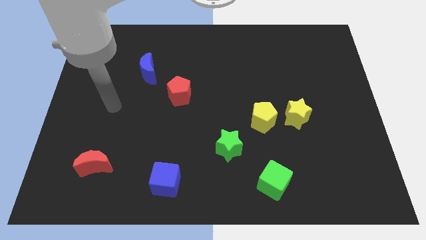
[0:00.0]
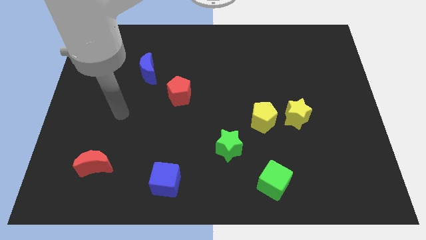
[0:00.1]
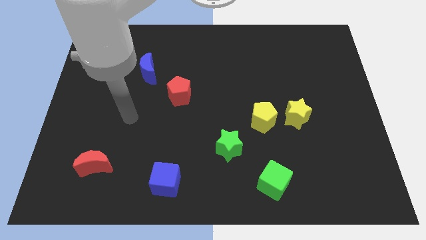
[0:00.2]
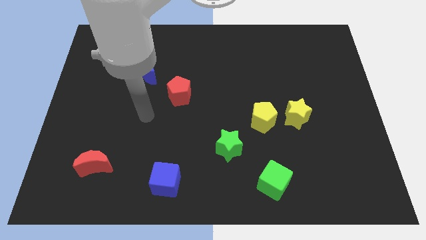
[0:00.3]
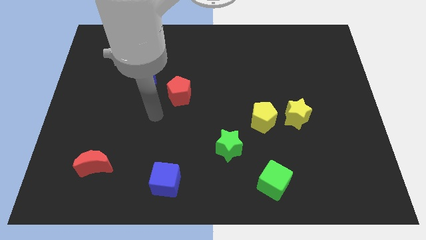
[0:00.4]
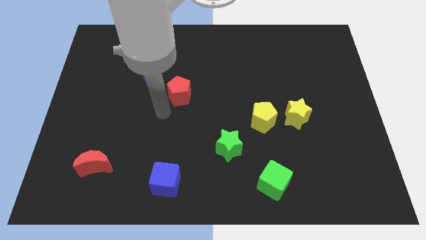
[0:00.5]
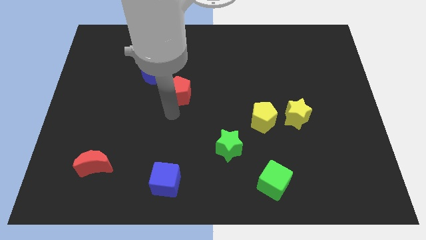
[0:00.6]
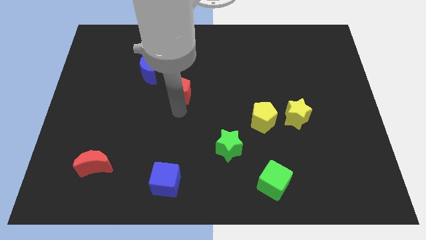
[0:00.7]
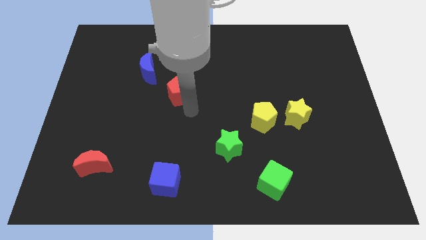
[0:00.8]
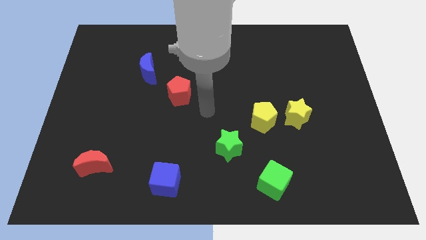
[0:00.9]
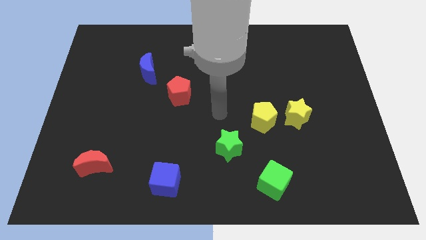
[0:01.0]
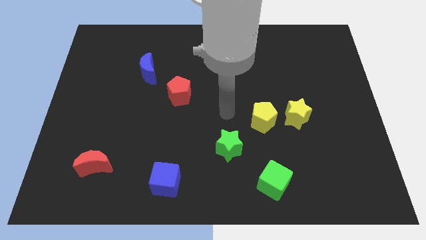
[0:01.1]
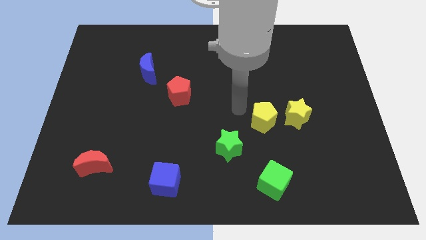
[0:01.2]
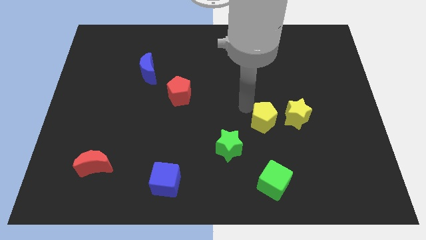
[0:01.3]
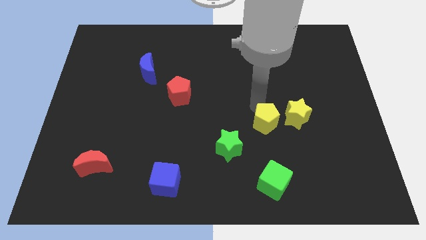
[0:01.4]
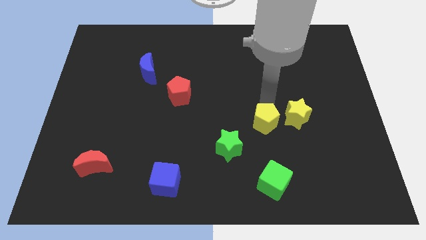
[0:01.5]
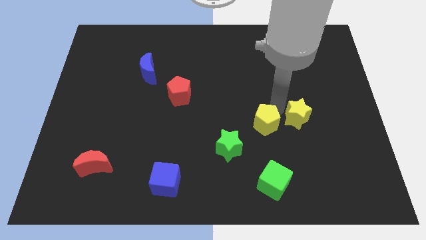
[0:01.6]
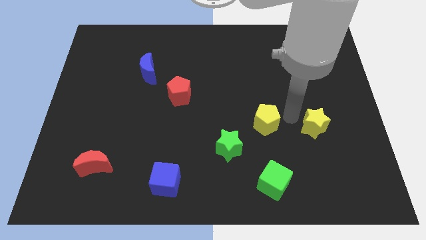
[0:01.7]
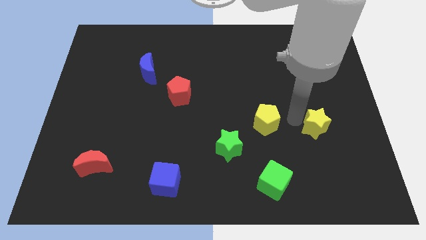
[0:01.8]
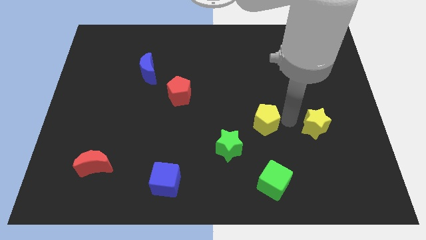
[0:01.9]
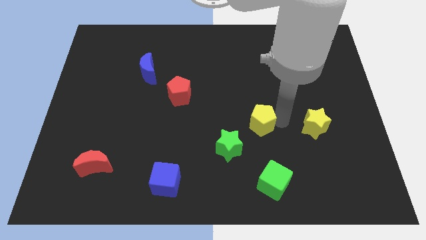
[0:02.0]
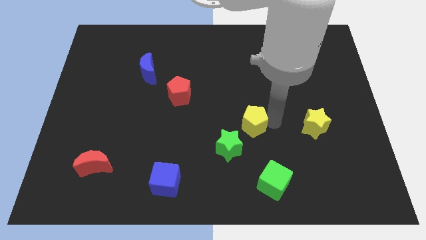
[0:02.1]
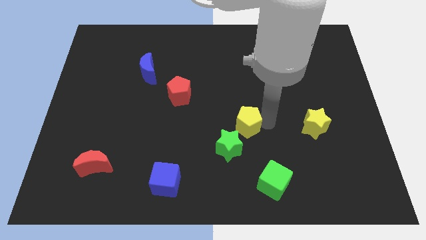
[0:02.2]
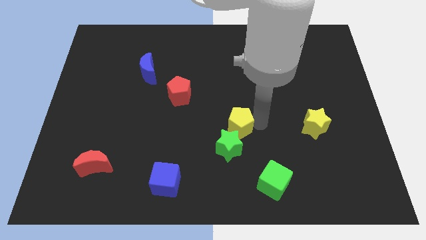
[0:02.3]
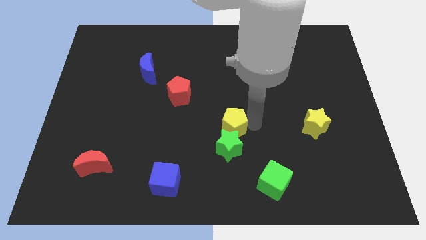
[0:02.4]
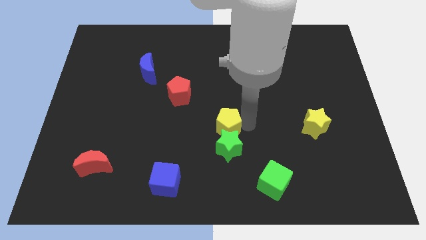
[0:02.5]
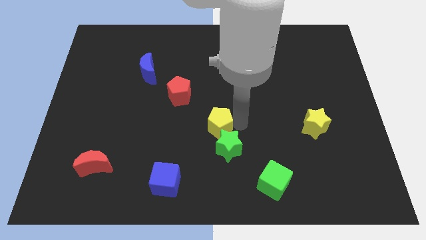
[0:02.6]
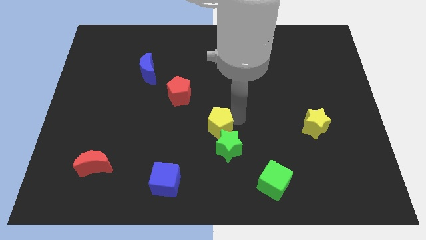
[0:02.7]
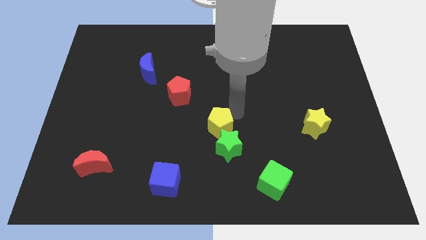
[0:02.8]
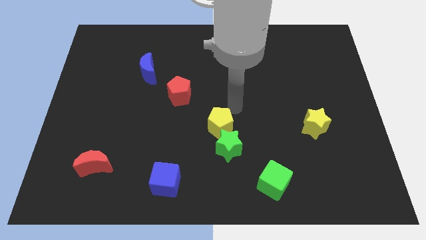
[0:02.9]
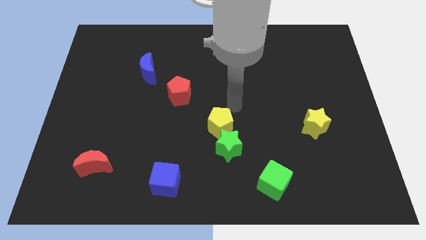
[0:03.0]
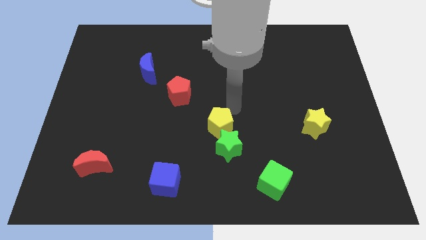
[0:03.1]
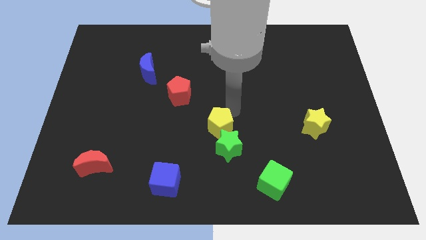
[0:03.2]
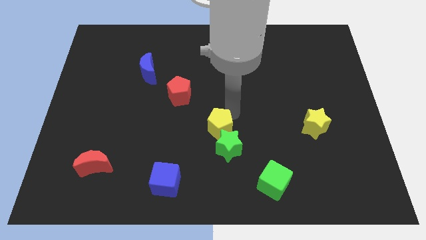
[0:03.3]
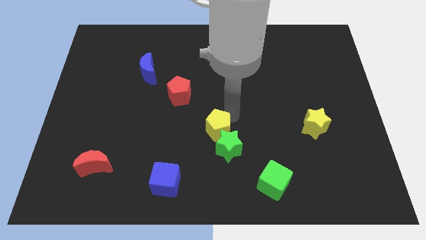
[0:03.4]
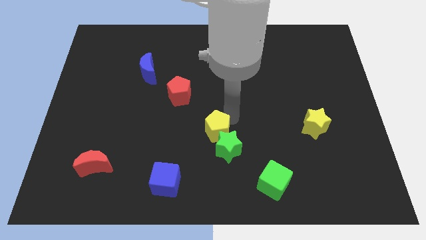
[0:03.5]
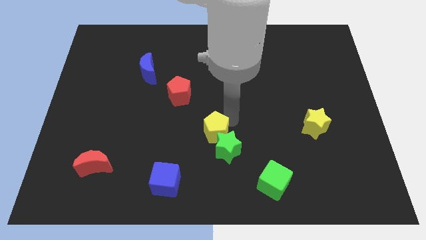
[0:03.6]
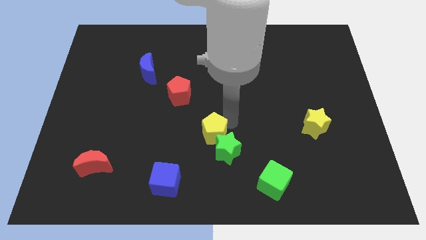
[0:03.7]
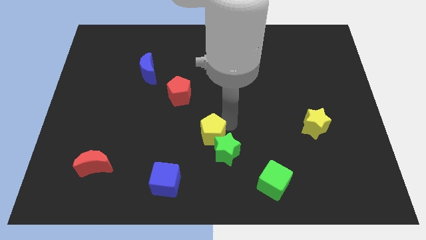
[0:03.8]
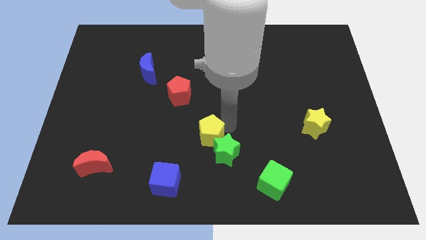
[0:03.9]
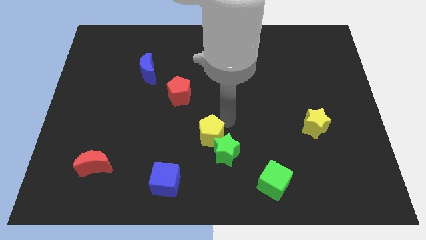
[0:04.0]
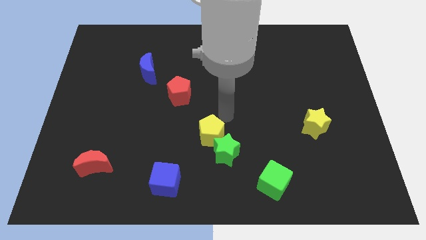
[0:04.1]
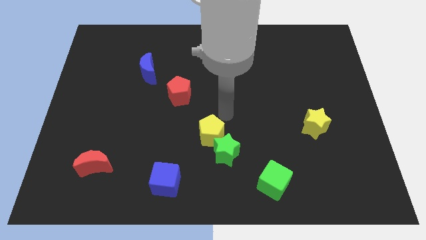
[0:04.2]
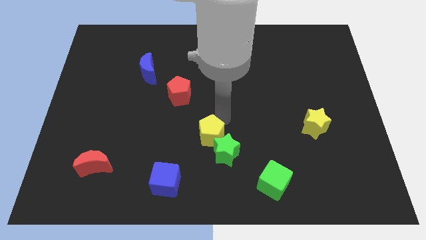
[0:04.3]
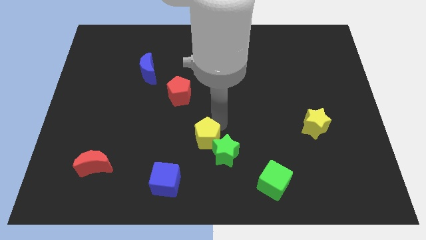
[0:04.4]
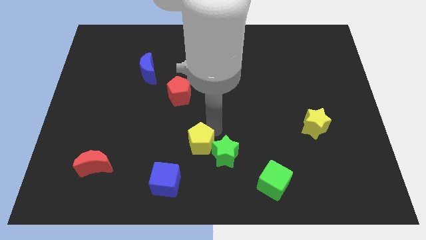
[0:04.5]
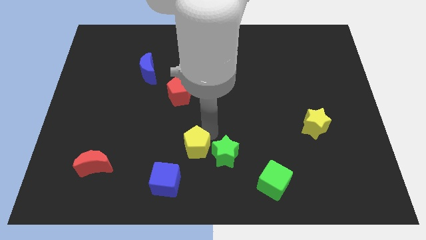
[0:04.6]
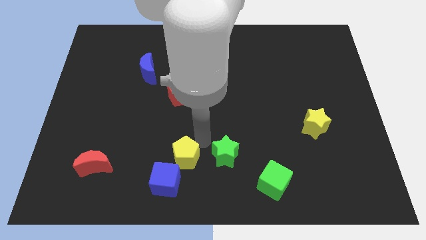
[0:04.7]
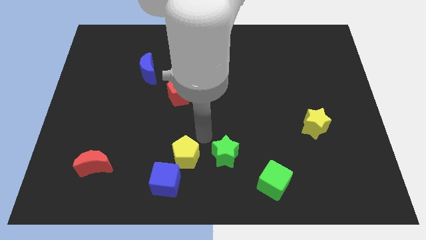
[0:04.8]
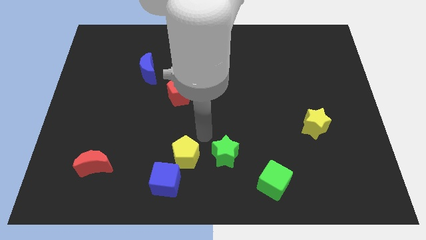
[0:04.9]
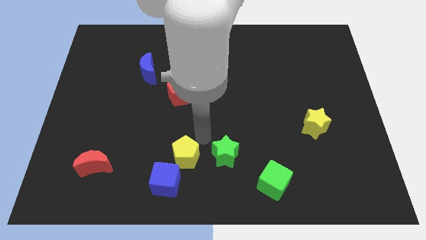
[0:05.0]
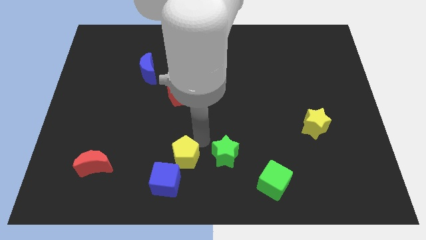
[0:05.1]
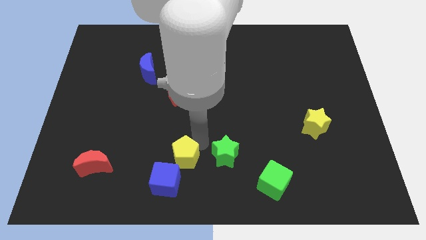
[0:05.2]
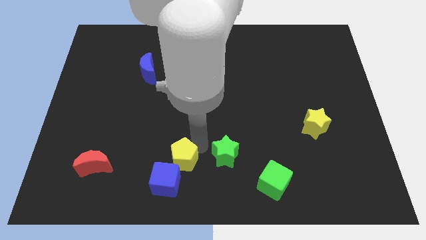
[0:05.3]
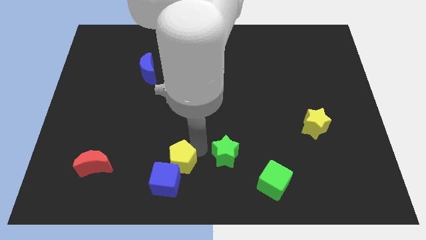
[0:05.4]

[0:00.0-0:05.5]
move the yellow pentagon to the blue cube

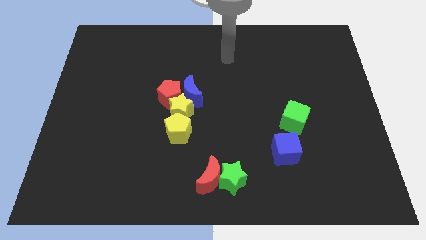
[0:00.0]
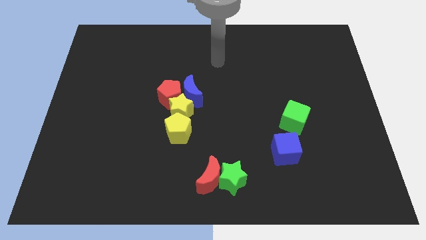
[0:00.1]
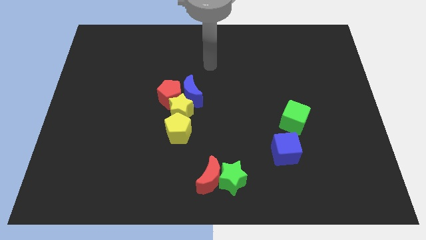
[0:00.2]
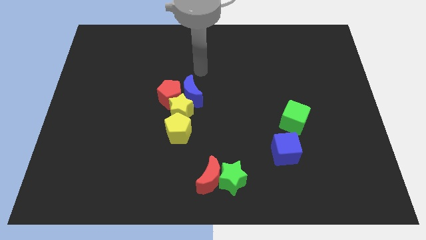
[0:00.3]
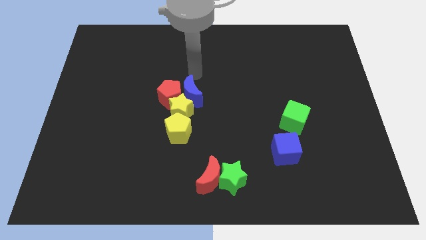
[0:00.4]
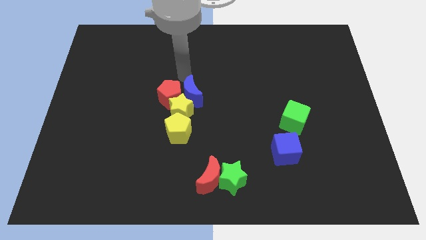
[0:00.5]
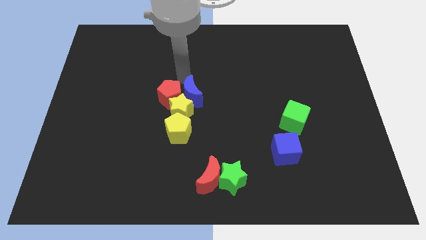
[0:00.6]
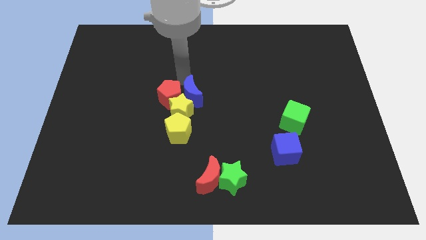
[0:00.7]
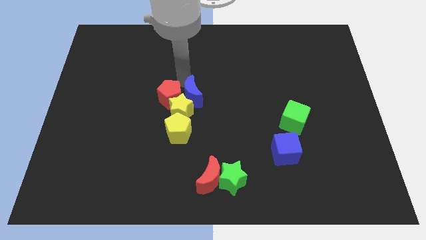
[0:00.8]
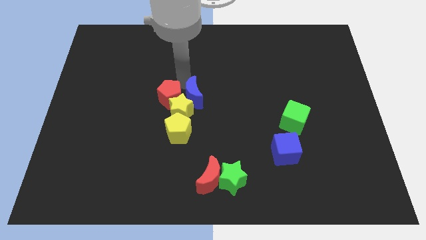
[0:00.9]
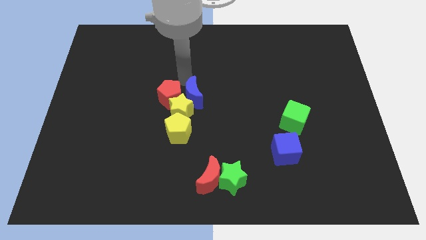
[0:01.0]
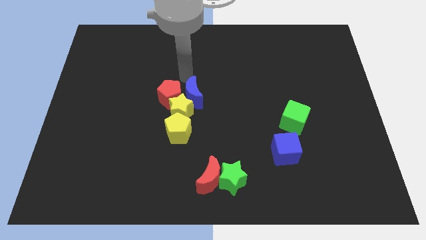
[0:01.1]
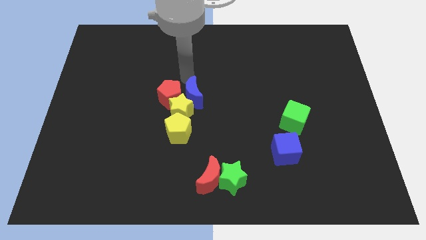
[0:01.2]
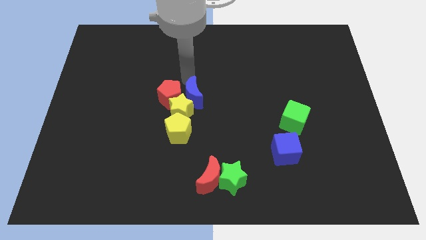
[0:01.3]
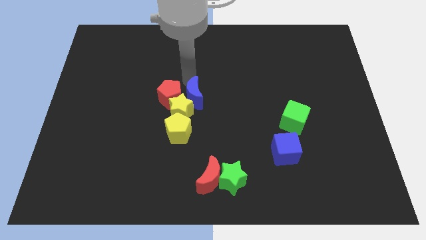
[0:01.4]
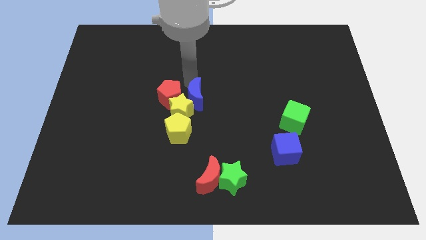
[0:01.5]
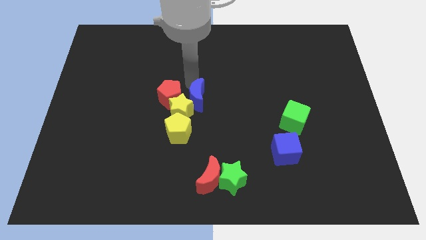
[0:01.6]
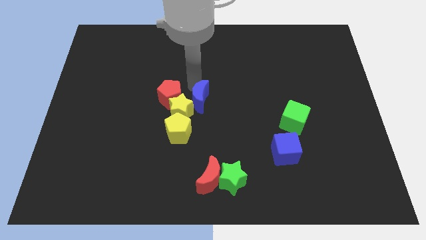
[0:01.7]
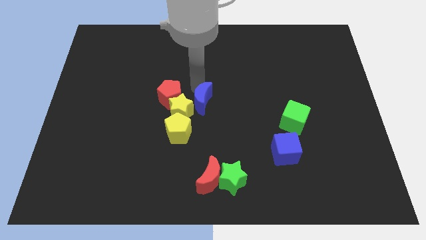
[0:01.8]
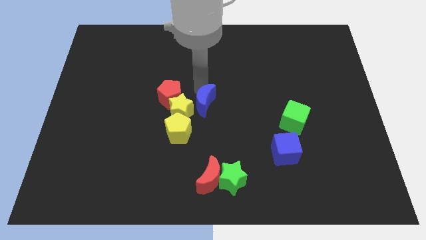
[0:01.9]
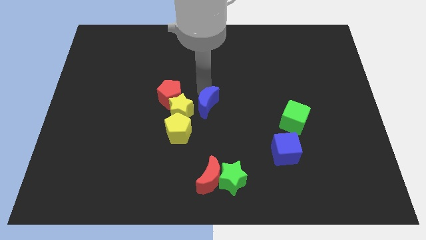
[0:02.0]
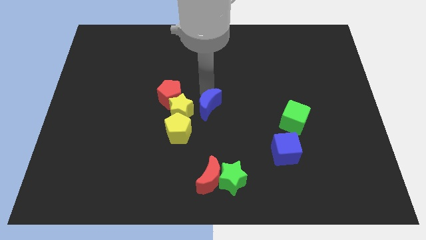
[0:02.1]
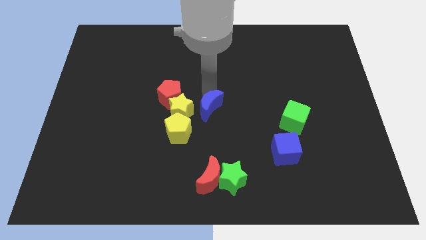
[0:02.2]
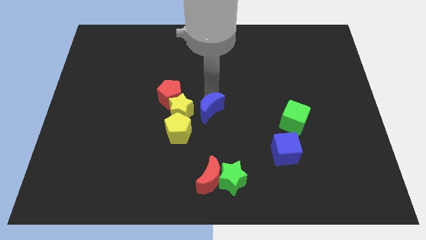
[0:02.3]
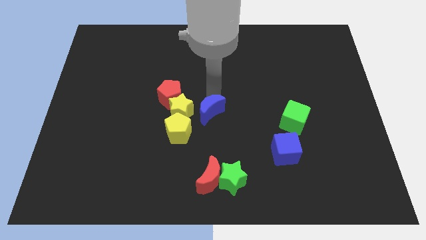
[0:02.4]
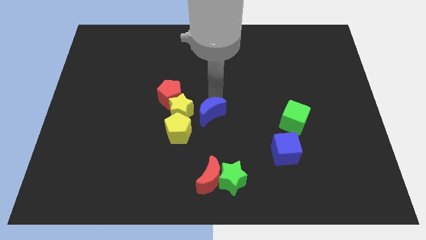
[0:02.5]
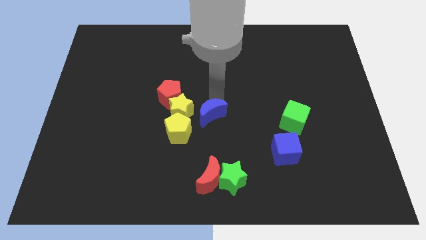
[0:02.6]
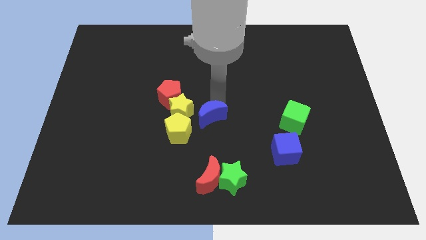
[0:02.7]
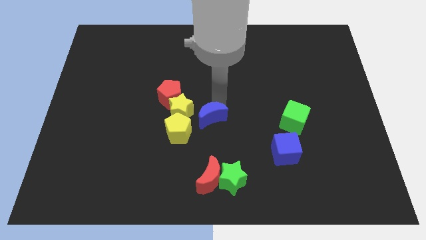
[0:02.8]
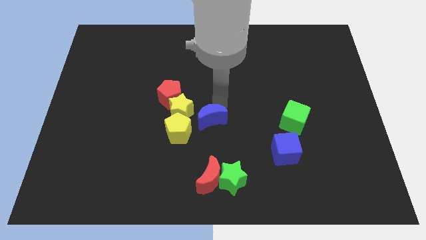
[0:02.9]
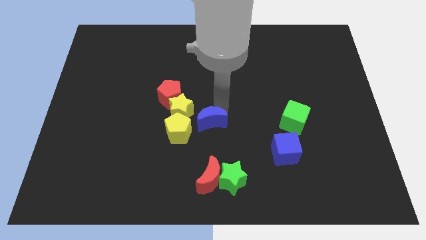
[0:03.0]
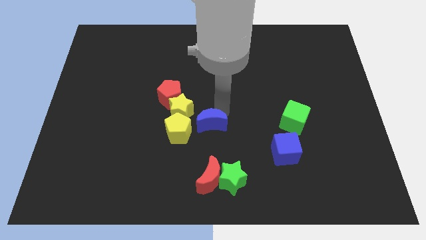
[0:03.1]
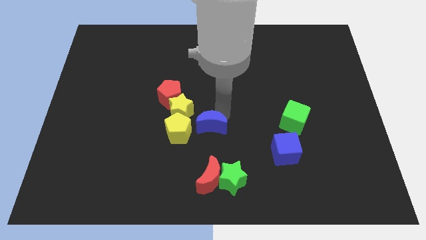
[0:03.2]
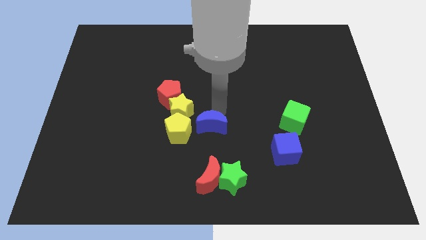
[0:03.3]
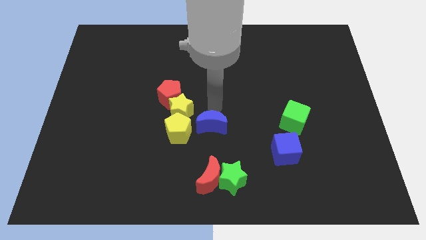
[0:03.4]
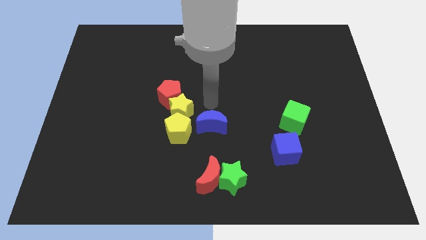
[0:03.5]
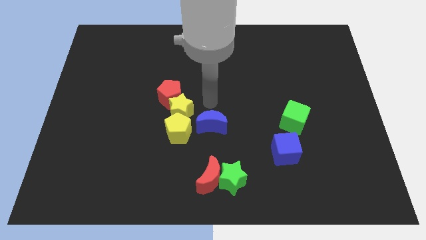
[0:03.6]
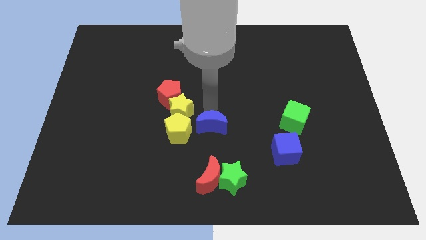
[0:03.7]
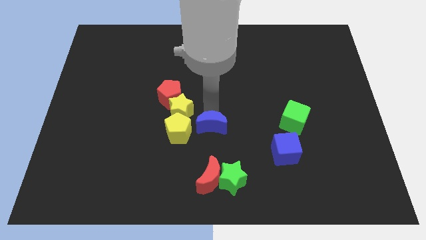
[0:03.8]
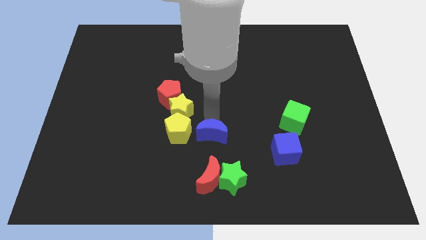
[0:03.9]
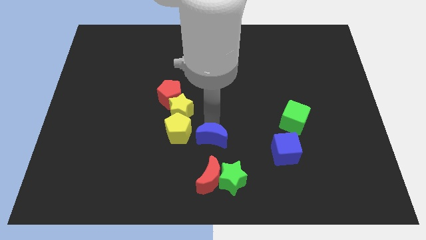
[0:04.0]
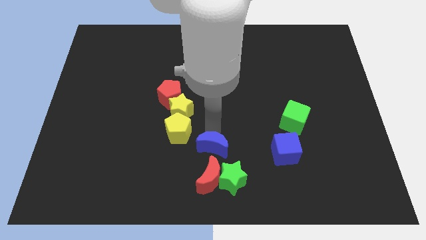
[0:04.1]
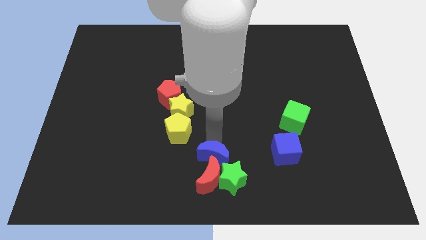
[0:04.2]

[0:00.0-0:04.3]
slide the blue moon close to the red moon
